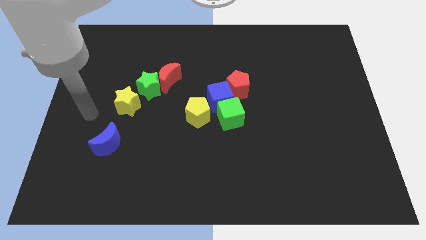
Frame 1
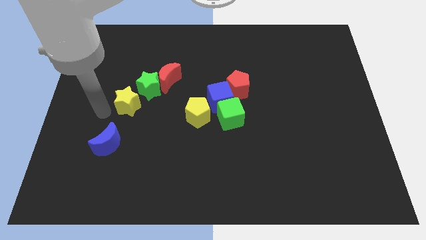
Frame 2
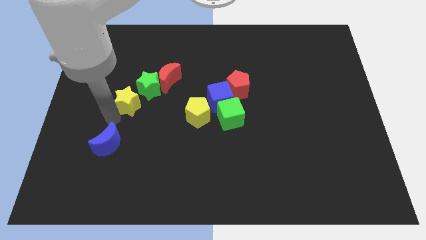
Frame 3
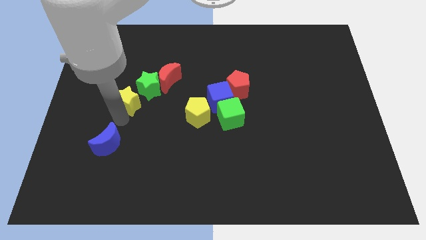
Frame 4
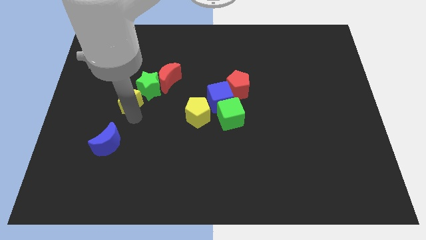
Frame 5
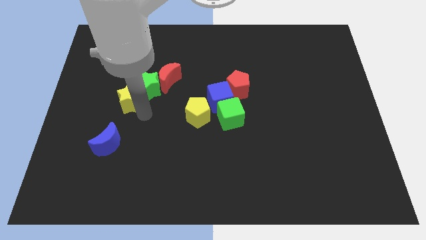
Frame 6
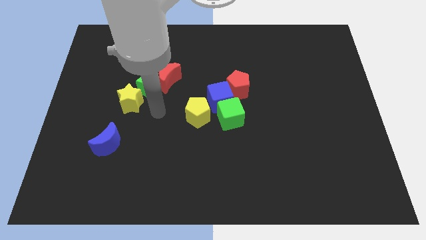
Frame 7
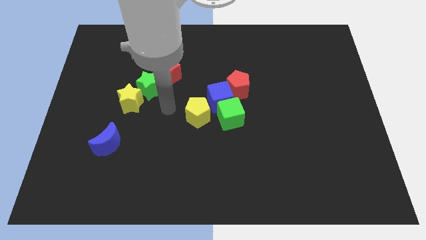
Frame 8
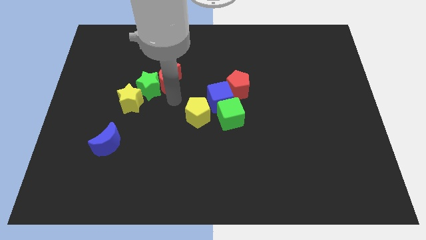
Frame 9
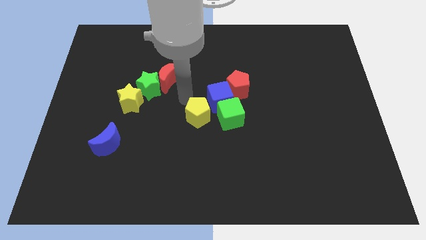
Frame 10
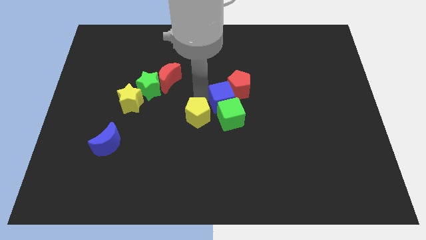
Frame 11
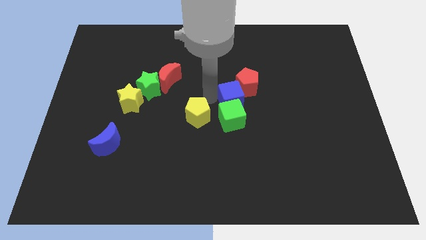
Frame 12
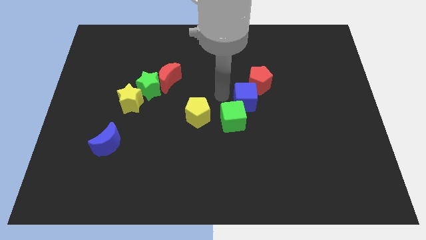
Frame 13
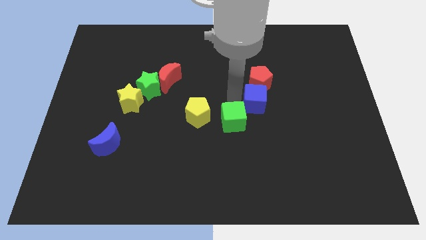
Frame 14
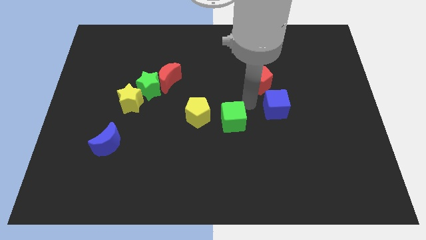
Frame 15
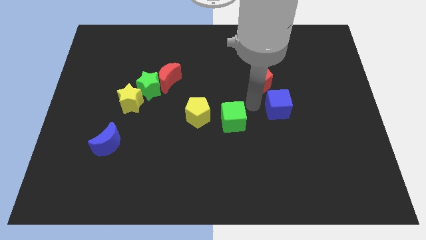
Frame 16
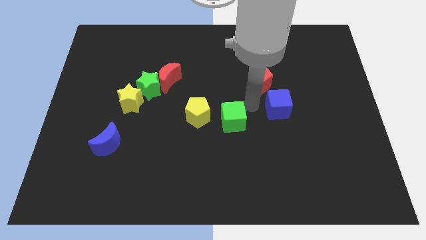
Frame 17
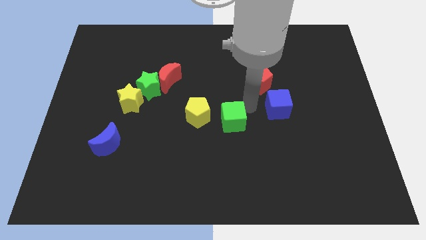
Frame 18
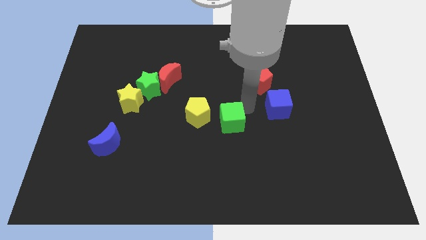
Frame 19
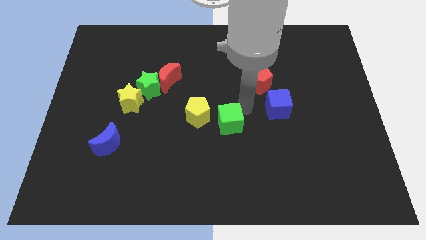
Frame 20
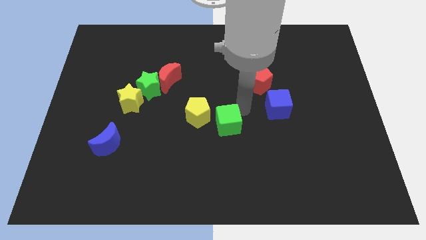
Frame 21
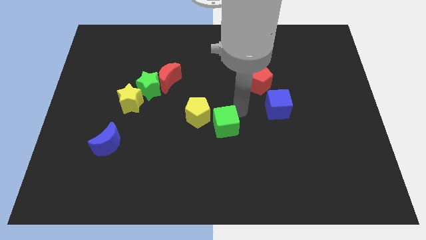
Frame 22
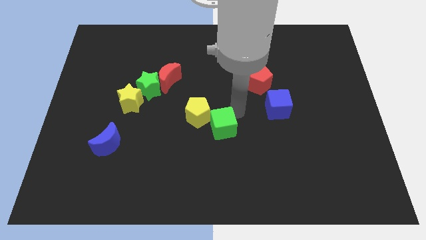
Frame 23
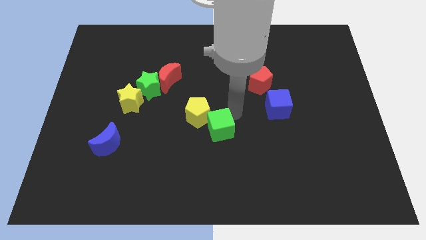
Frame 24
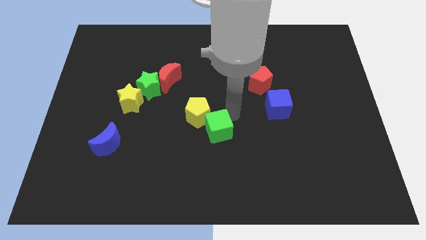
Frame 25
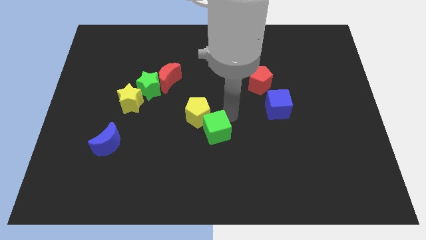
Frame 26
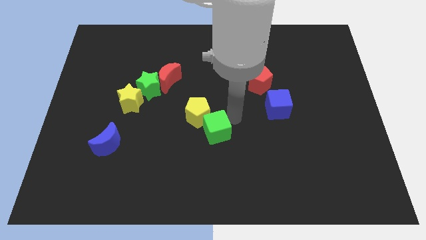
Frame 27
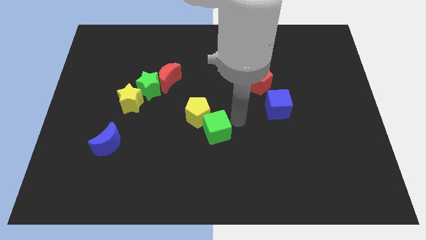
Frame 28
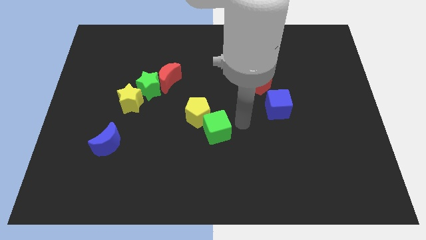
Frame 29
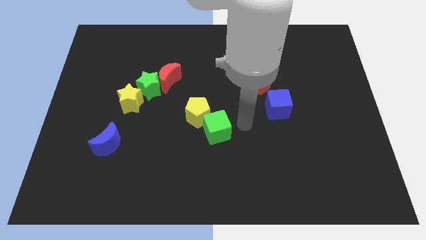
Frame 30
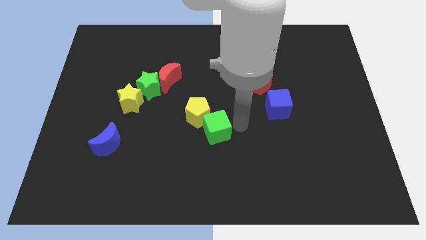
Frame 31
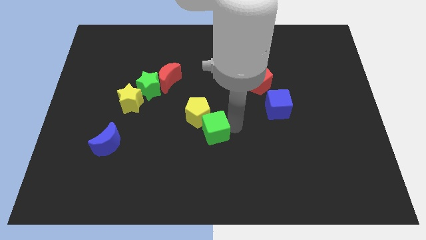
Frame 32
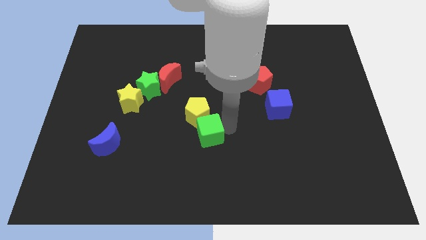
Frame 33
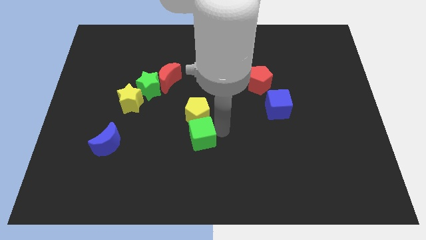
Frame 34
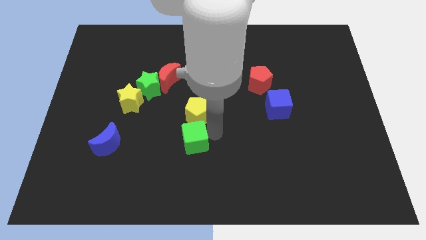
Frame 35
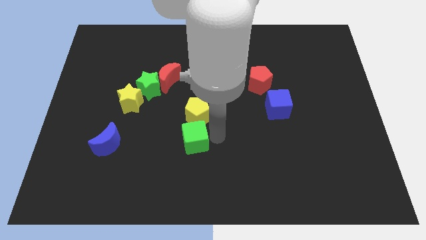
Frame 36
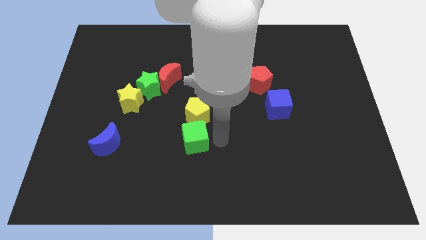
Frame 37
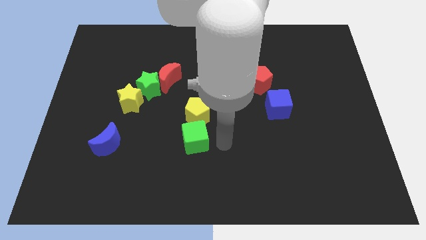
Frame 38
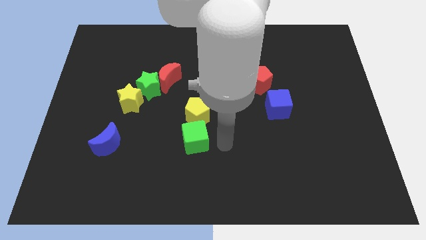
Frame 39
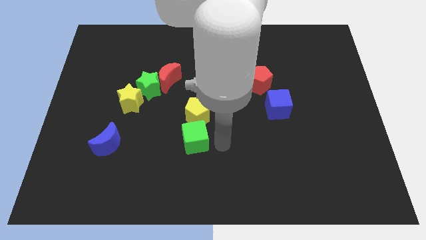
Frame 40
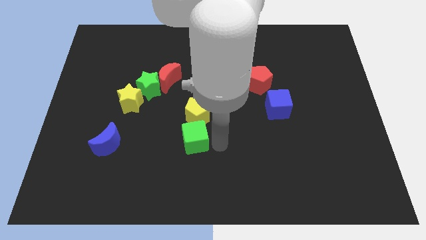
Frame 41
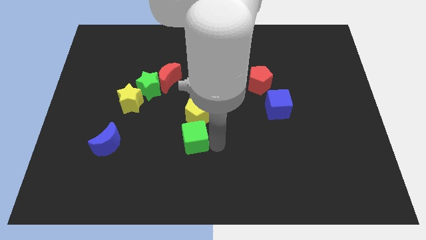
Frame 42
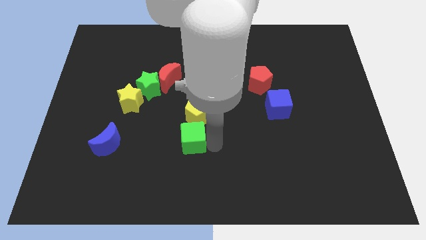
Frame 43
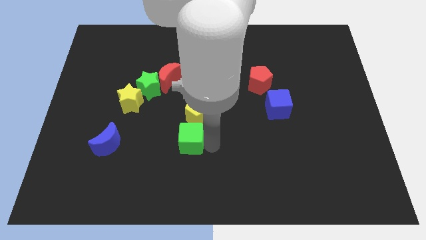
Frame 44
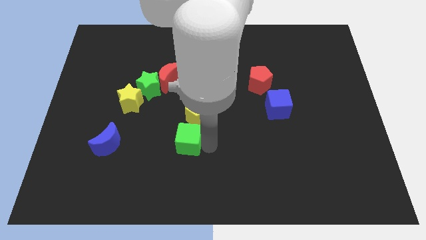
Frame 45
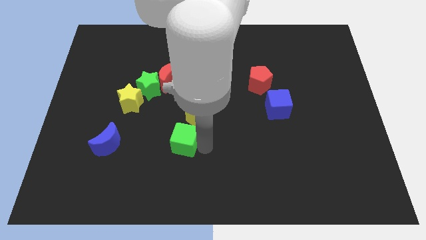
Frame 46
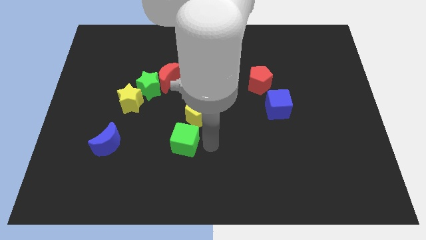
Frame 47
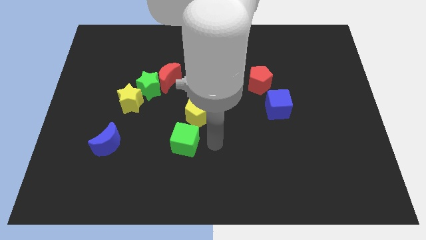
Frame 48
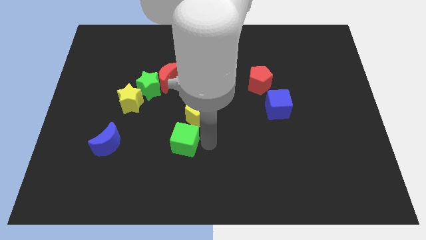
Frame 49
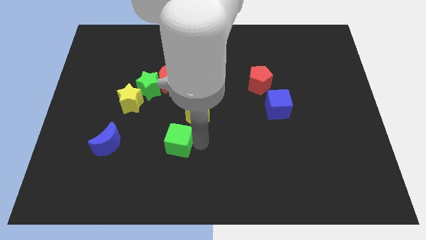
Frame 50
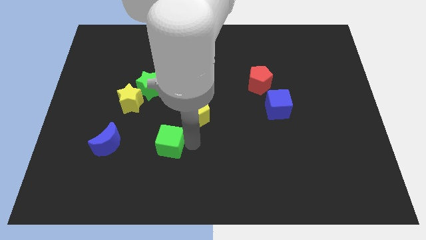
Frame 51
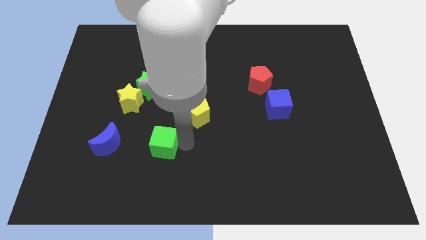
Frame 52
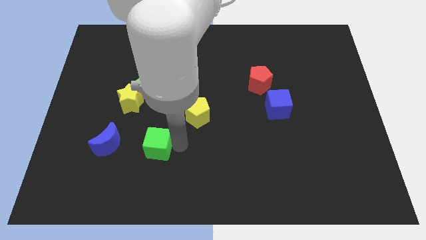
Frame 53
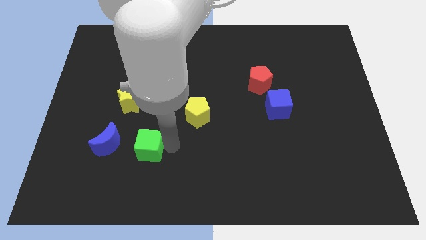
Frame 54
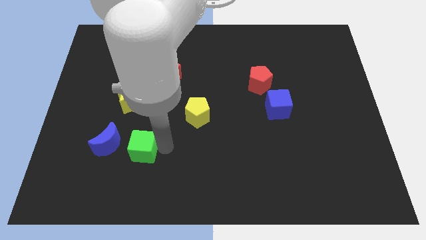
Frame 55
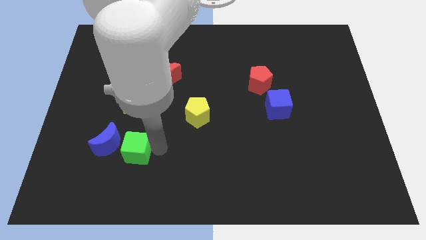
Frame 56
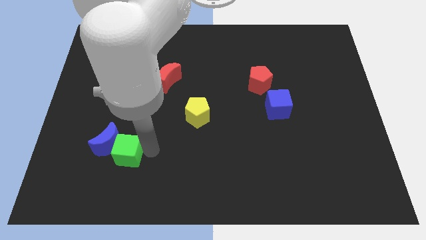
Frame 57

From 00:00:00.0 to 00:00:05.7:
put the green cube next to the blue moon

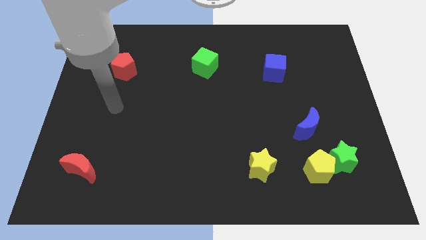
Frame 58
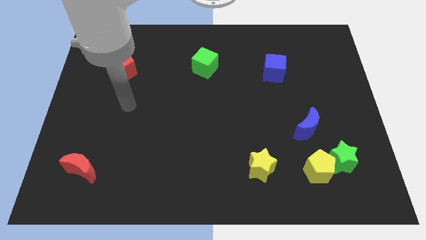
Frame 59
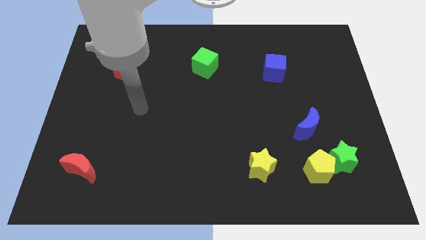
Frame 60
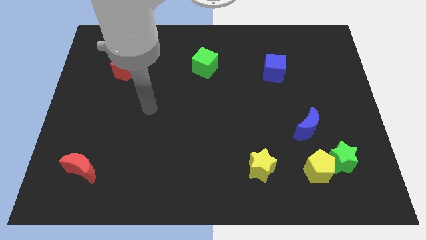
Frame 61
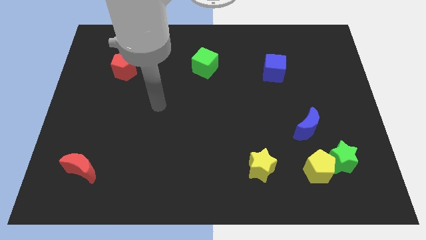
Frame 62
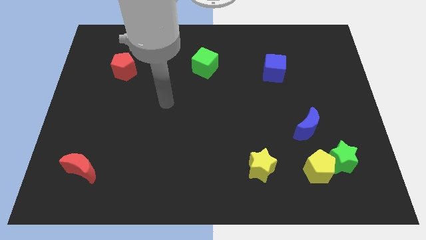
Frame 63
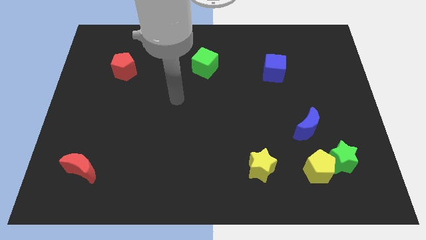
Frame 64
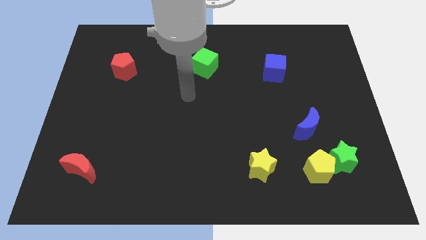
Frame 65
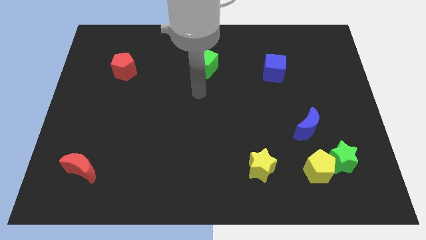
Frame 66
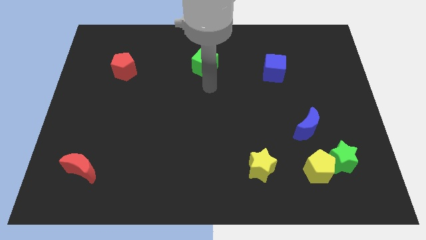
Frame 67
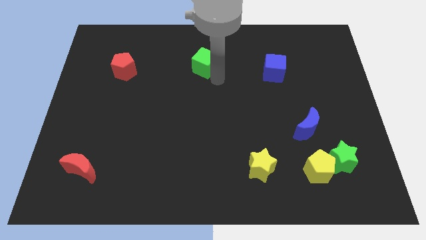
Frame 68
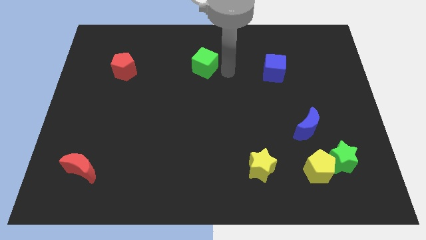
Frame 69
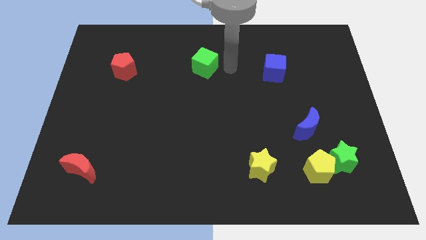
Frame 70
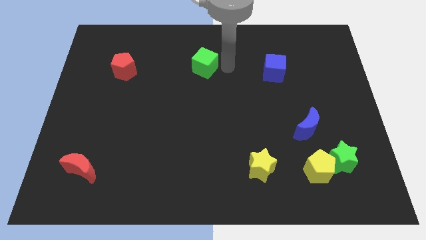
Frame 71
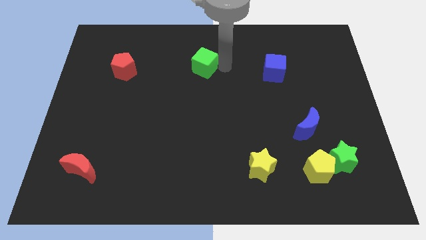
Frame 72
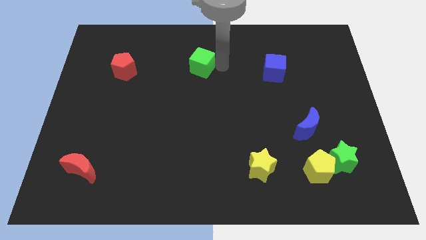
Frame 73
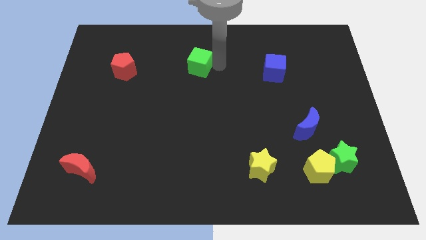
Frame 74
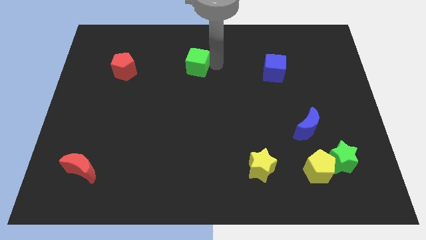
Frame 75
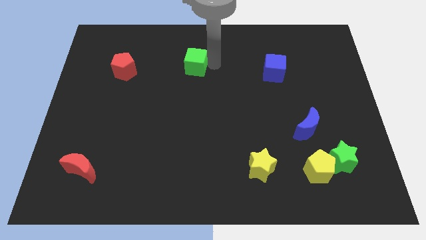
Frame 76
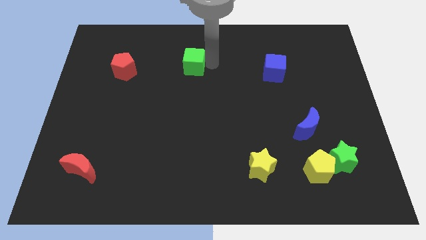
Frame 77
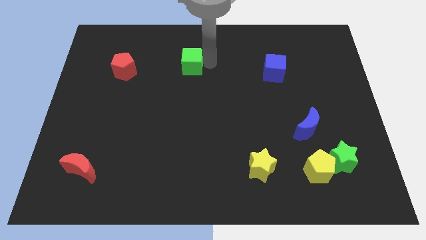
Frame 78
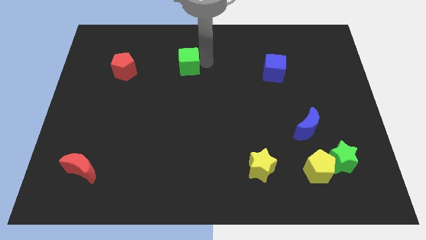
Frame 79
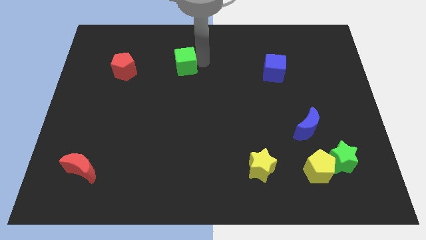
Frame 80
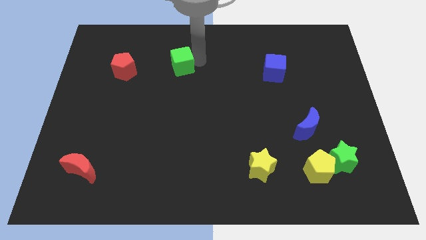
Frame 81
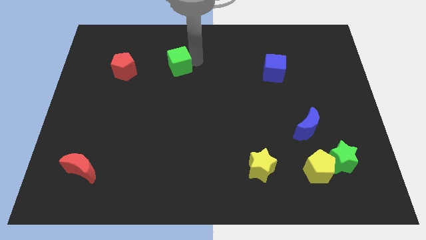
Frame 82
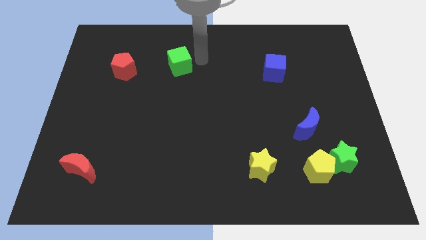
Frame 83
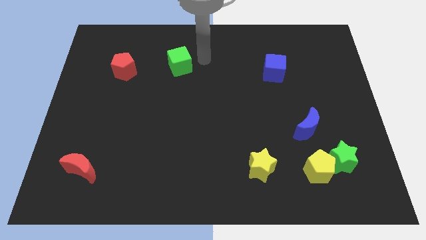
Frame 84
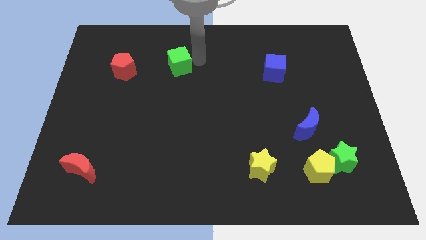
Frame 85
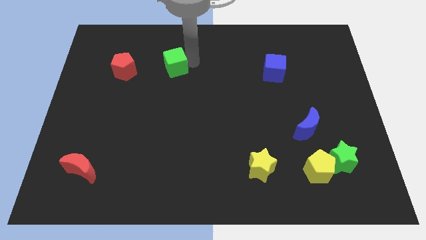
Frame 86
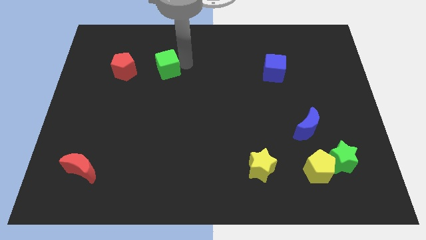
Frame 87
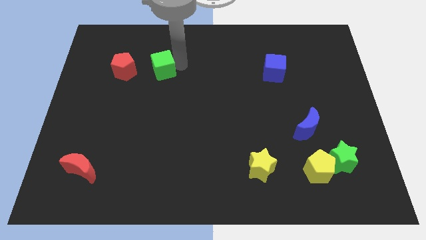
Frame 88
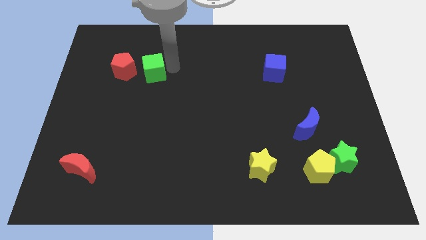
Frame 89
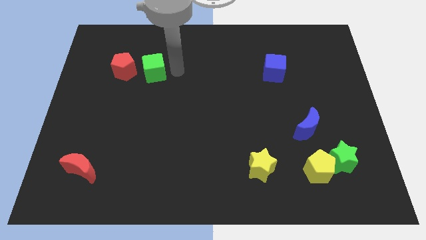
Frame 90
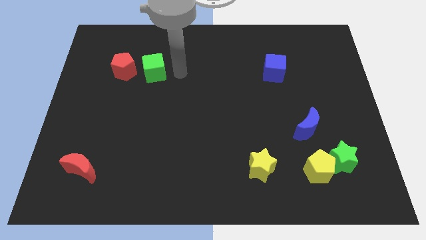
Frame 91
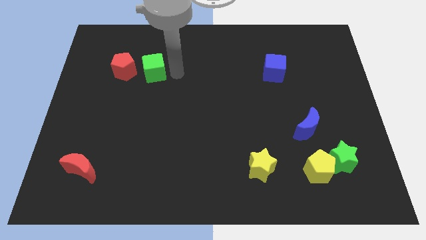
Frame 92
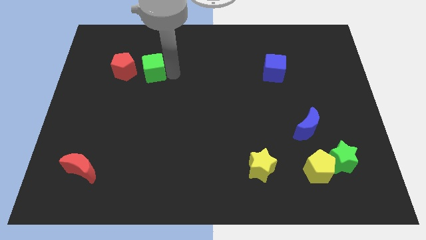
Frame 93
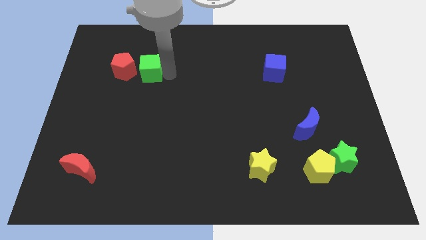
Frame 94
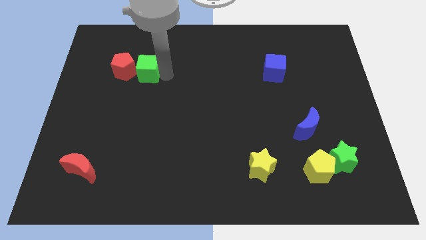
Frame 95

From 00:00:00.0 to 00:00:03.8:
slide the green cube towards the red pentagon
